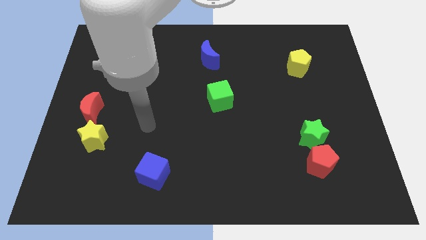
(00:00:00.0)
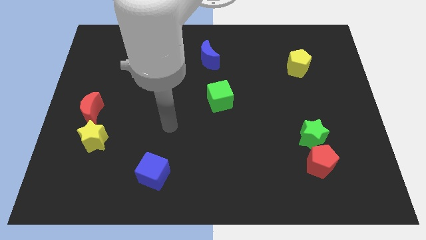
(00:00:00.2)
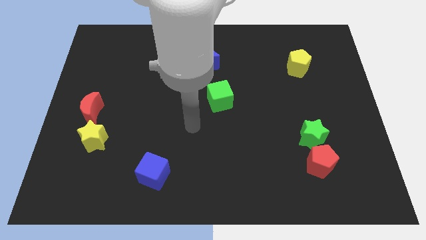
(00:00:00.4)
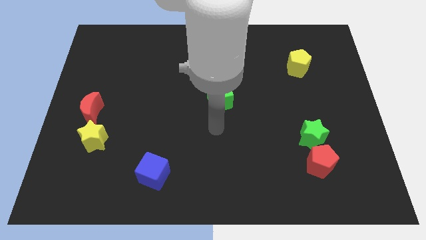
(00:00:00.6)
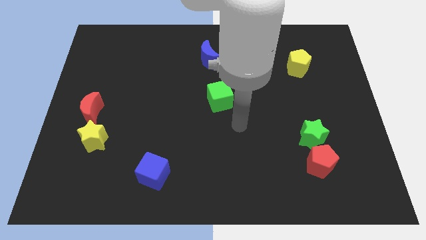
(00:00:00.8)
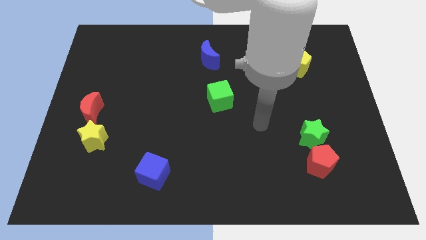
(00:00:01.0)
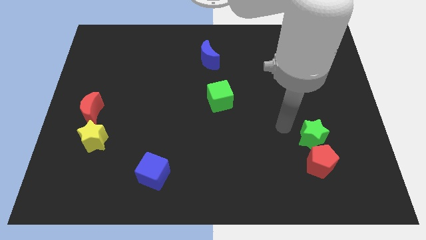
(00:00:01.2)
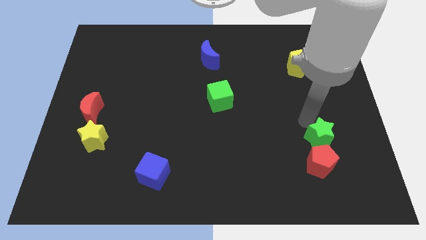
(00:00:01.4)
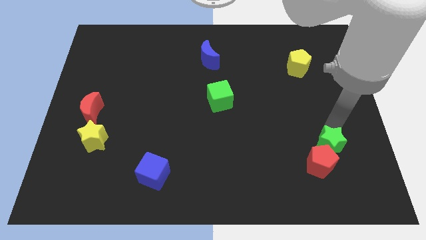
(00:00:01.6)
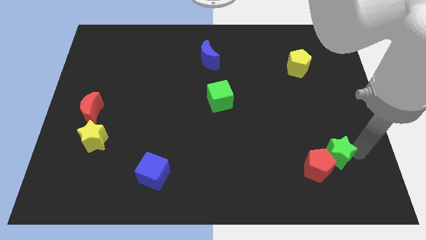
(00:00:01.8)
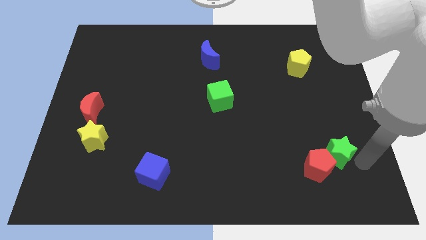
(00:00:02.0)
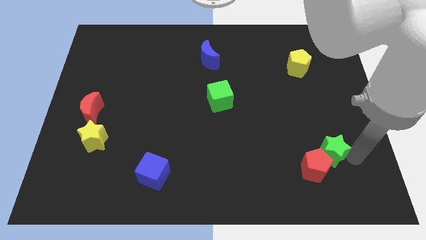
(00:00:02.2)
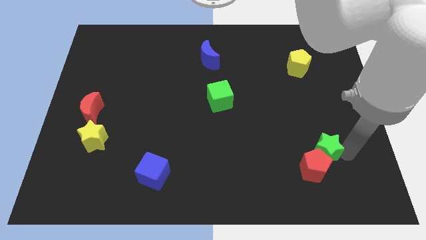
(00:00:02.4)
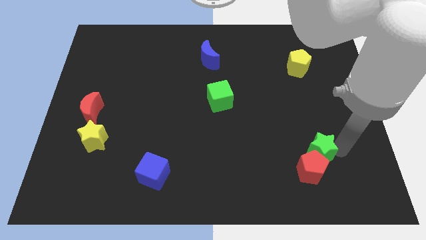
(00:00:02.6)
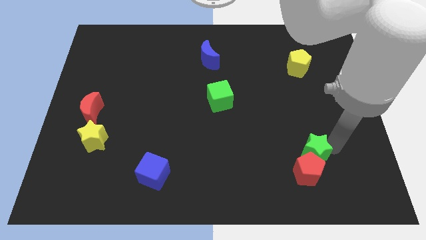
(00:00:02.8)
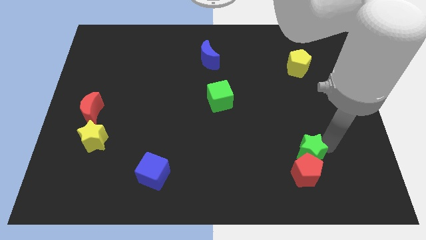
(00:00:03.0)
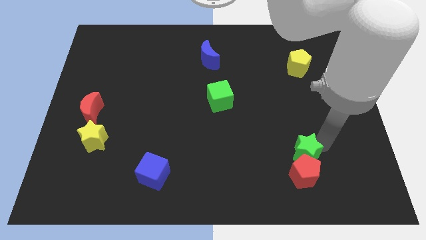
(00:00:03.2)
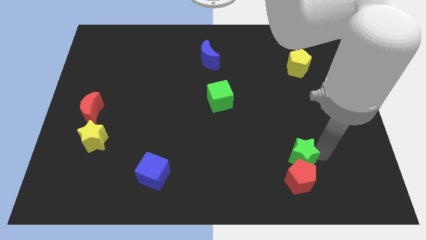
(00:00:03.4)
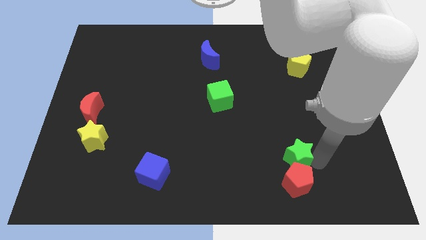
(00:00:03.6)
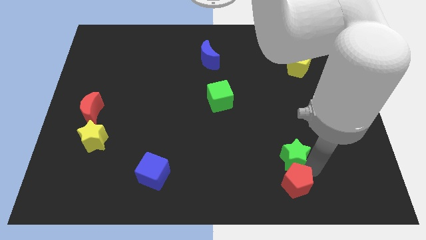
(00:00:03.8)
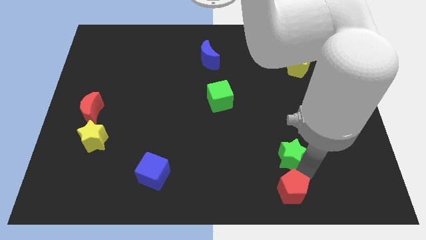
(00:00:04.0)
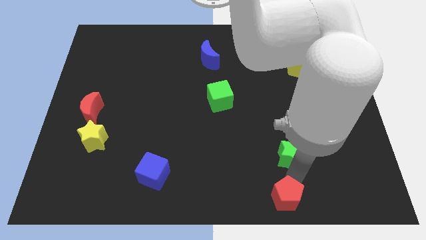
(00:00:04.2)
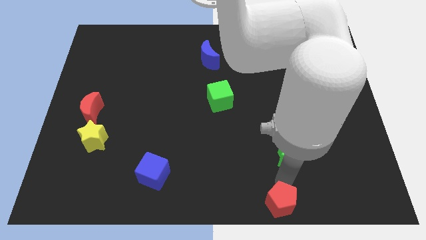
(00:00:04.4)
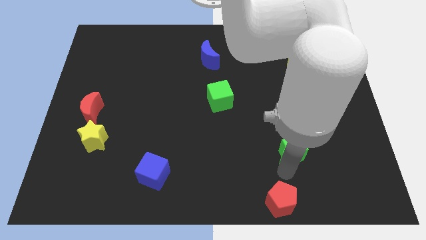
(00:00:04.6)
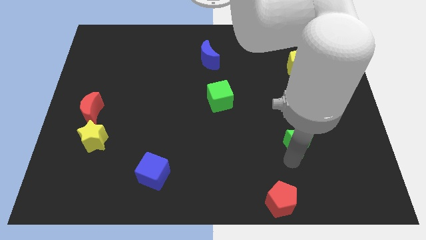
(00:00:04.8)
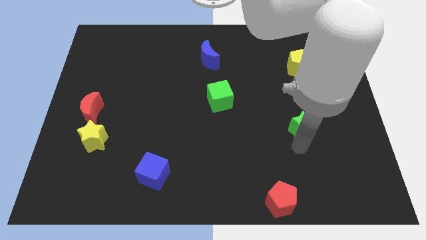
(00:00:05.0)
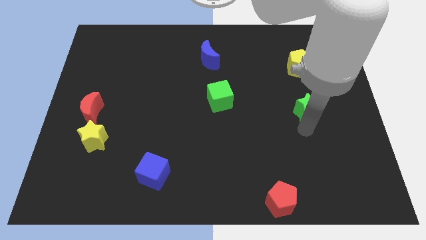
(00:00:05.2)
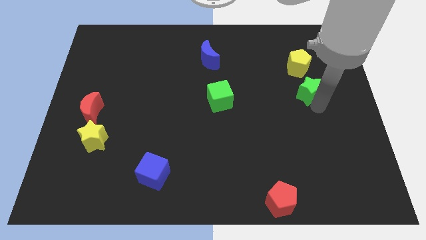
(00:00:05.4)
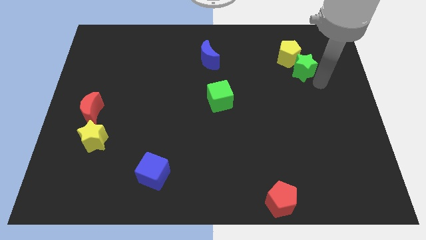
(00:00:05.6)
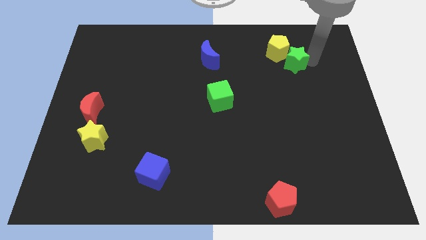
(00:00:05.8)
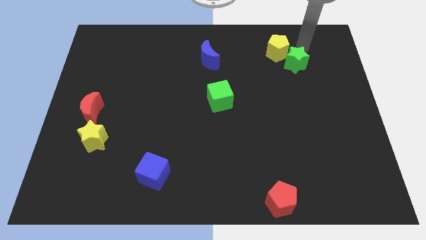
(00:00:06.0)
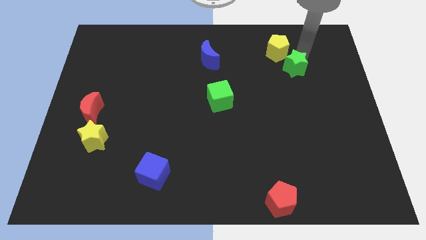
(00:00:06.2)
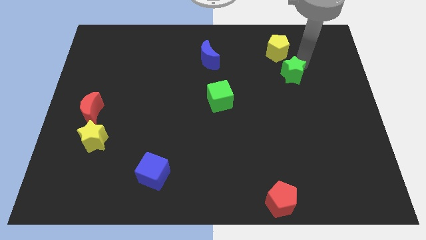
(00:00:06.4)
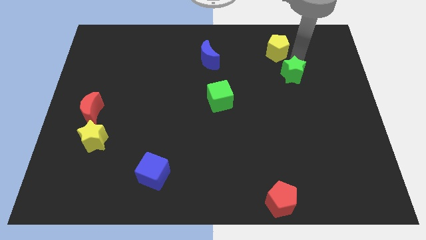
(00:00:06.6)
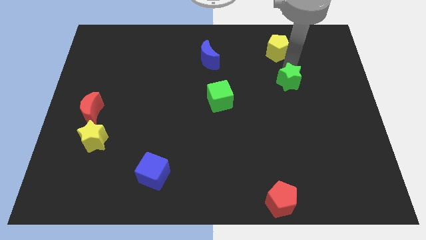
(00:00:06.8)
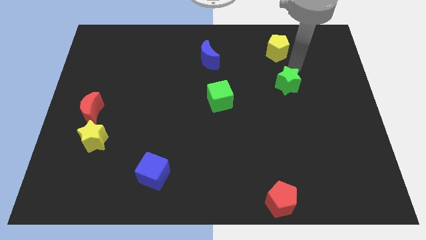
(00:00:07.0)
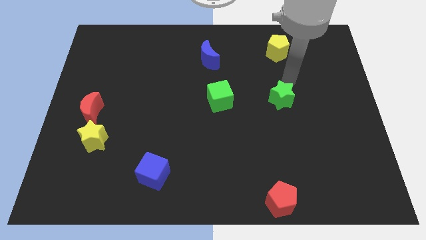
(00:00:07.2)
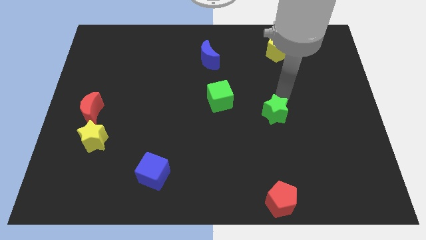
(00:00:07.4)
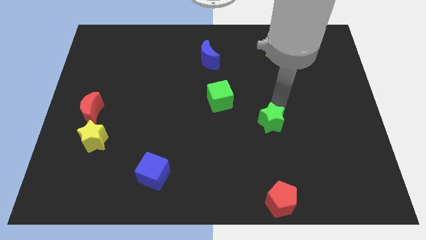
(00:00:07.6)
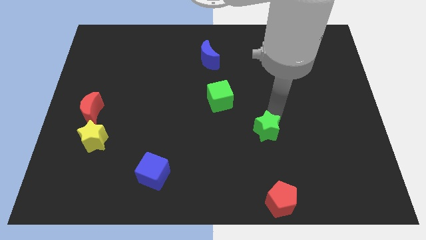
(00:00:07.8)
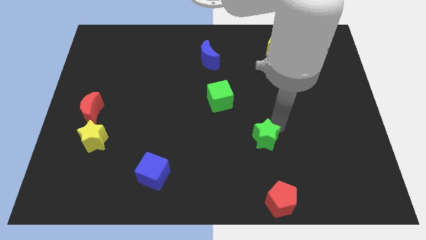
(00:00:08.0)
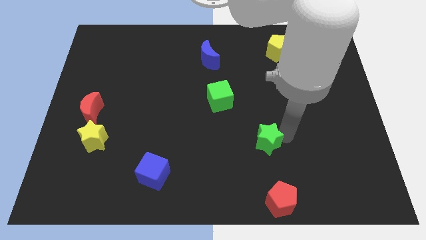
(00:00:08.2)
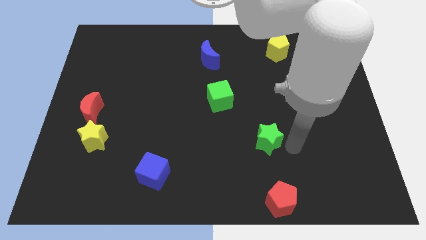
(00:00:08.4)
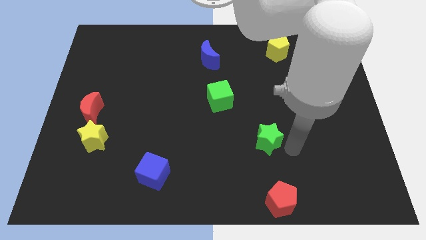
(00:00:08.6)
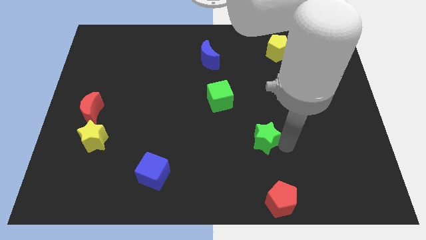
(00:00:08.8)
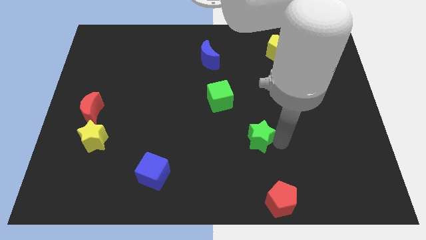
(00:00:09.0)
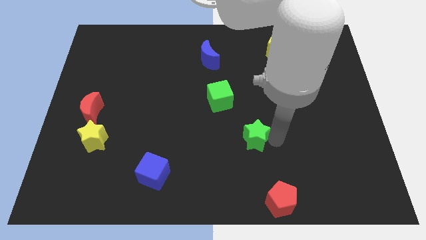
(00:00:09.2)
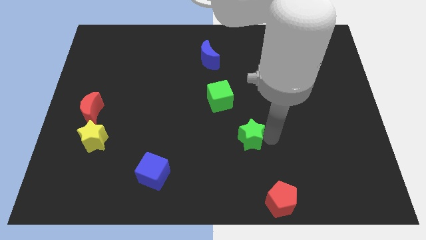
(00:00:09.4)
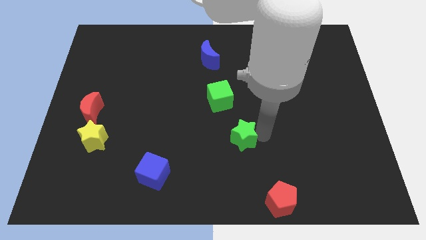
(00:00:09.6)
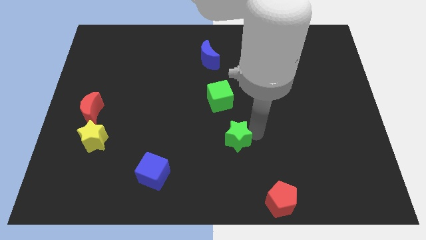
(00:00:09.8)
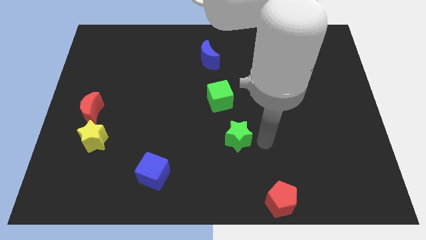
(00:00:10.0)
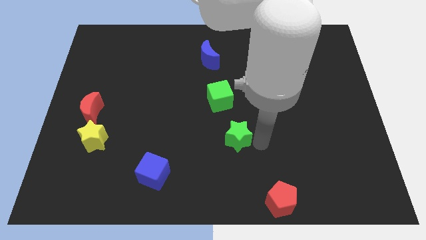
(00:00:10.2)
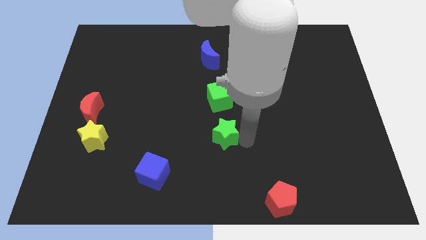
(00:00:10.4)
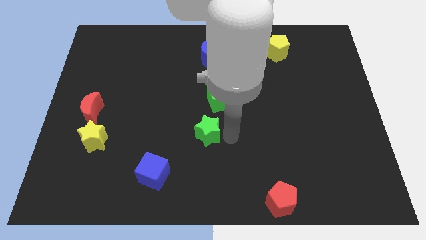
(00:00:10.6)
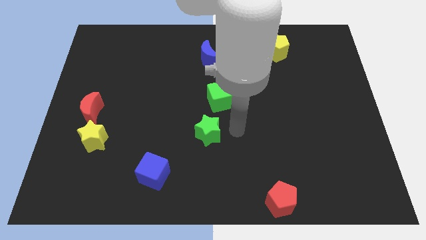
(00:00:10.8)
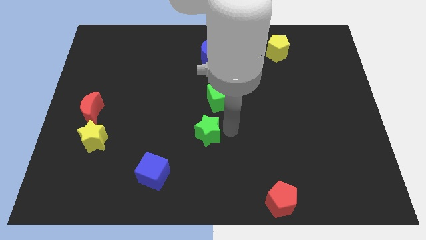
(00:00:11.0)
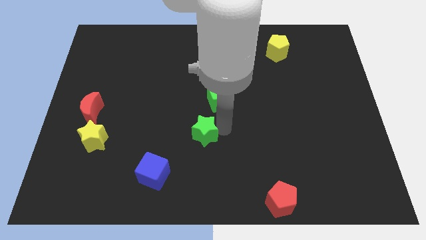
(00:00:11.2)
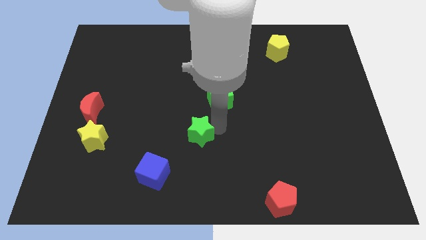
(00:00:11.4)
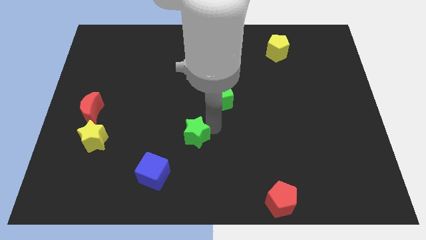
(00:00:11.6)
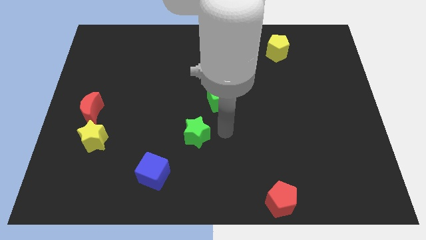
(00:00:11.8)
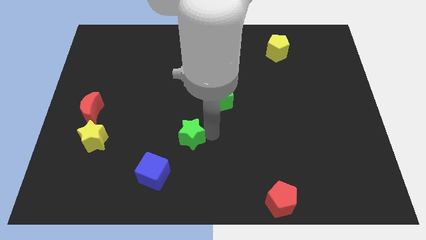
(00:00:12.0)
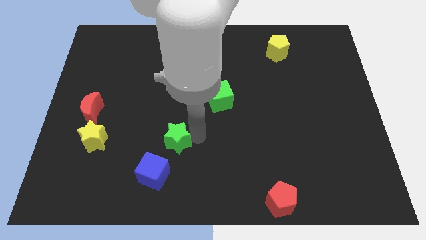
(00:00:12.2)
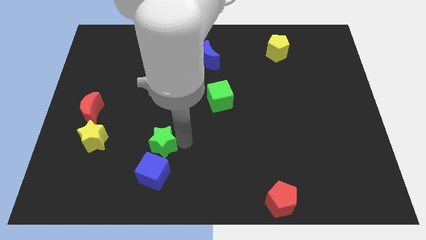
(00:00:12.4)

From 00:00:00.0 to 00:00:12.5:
slide the green star right of the yellow star

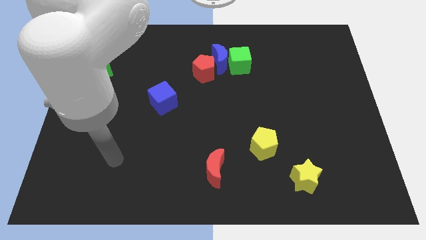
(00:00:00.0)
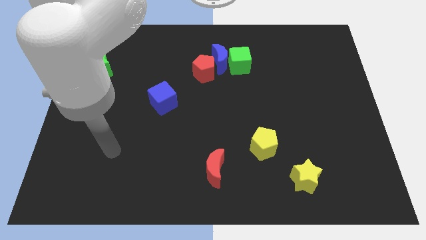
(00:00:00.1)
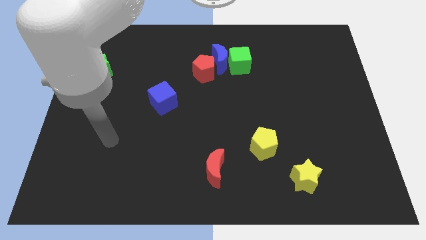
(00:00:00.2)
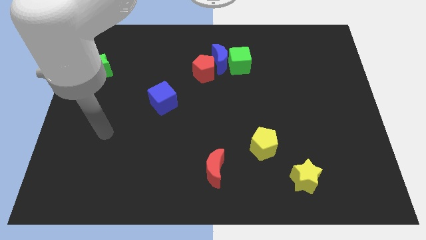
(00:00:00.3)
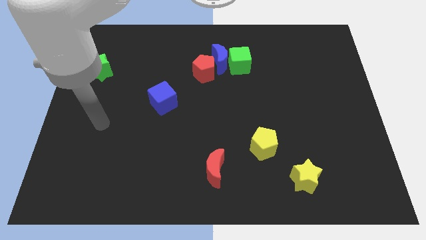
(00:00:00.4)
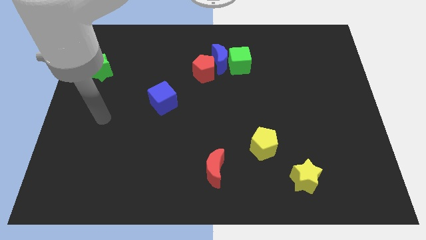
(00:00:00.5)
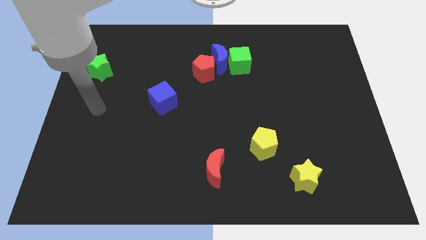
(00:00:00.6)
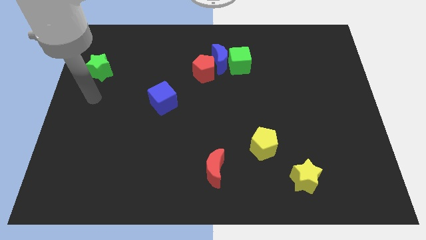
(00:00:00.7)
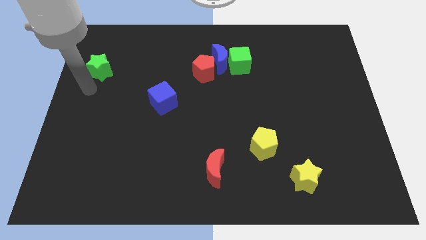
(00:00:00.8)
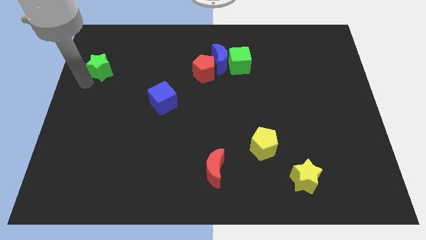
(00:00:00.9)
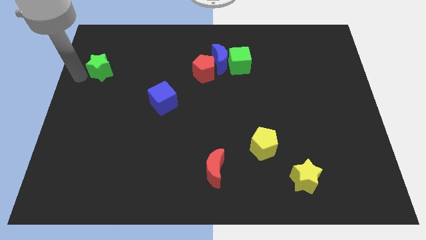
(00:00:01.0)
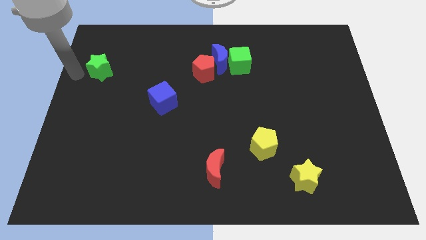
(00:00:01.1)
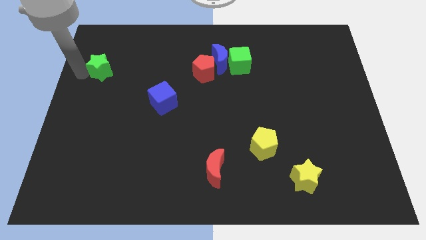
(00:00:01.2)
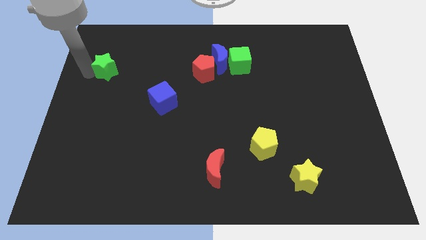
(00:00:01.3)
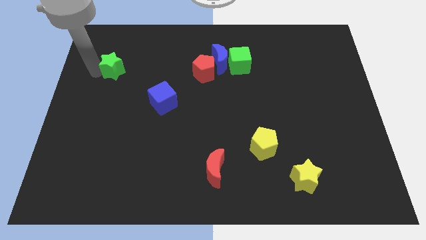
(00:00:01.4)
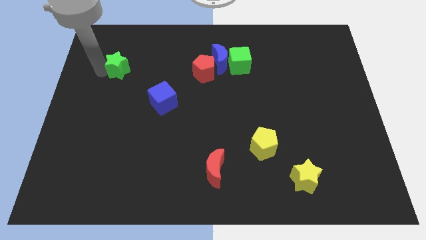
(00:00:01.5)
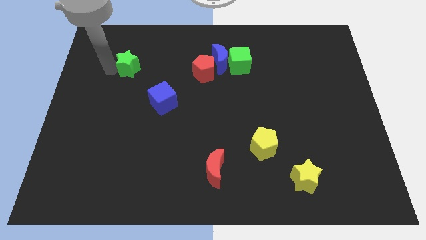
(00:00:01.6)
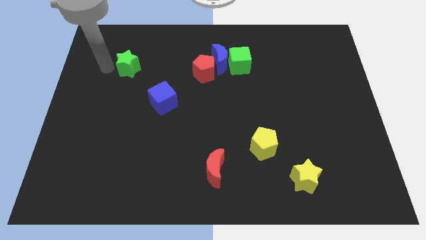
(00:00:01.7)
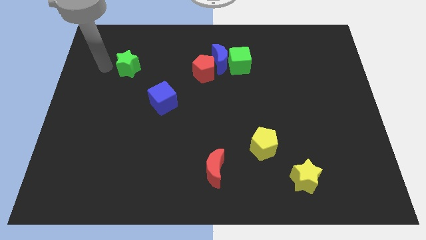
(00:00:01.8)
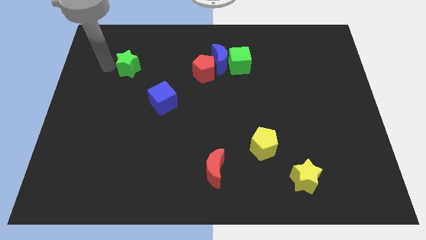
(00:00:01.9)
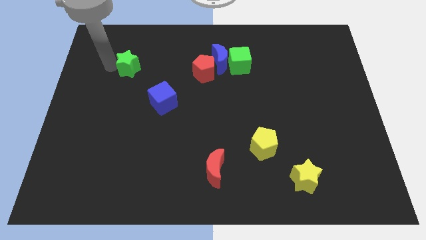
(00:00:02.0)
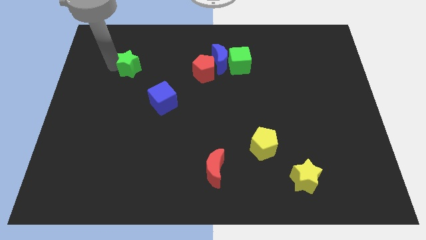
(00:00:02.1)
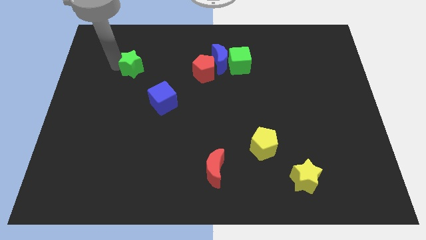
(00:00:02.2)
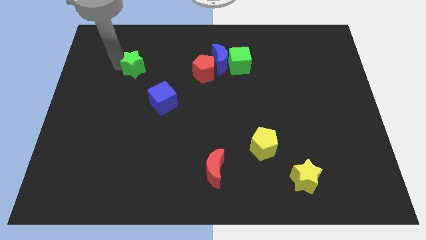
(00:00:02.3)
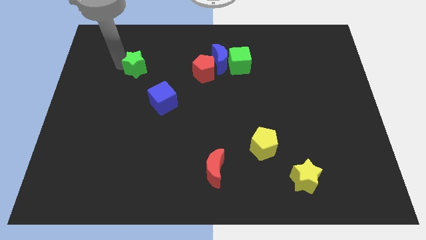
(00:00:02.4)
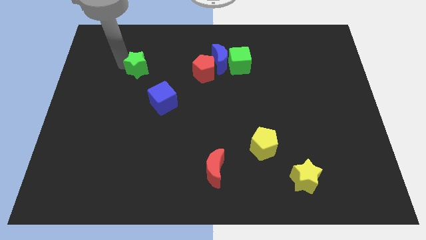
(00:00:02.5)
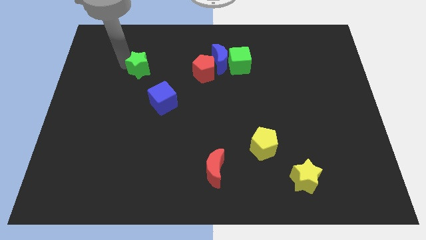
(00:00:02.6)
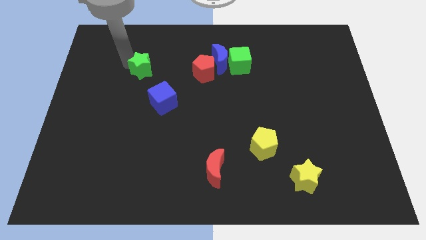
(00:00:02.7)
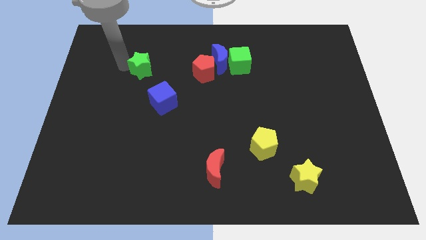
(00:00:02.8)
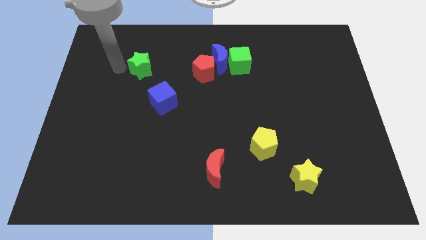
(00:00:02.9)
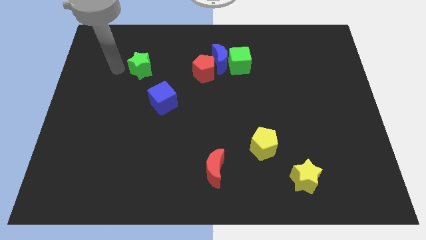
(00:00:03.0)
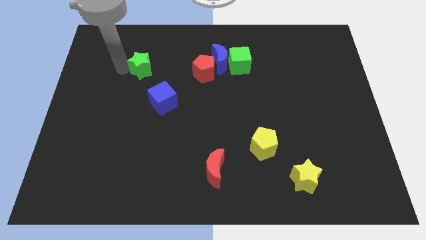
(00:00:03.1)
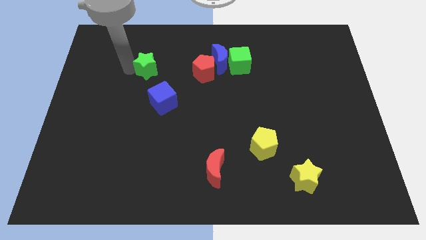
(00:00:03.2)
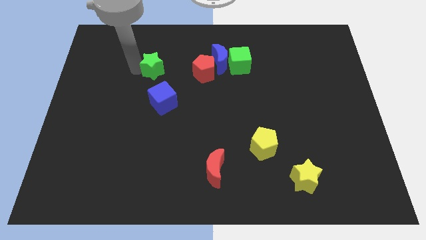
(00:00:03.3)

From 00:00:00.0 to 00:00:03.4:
push the green star to the top of the blue cube
